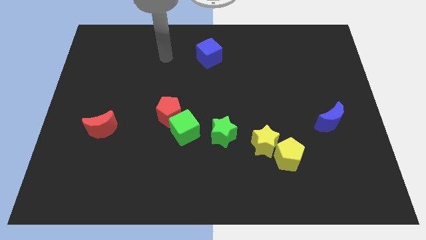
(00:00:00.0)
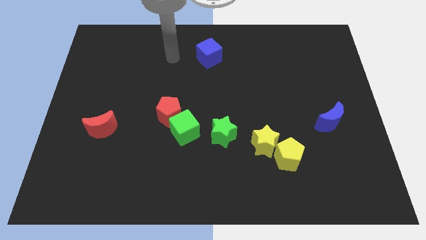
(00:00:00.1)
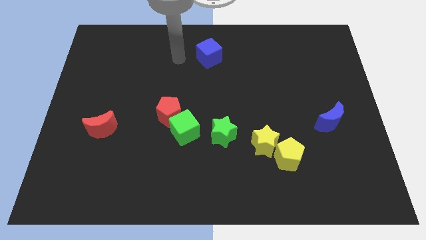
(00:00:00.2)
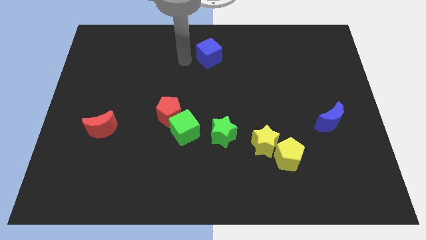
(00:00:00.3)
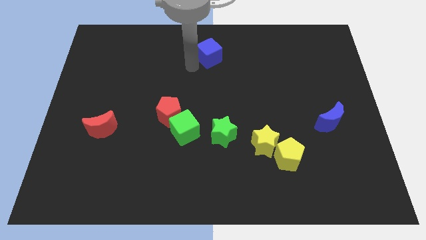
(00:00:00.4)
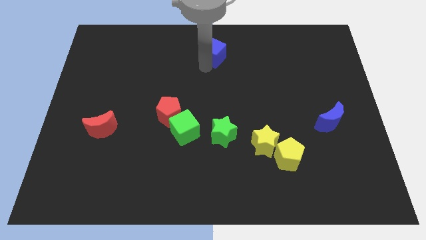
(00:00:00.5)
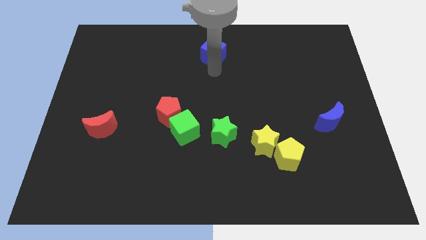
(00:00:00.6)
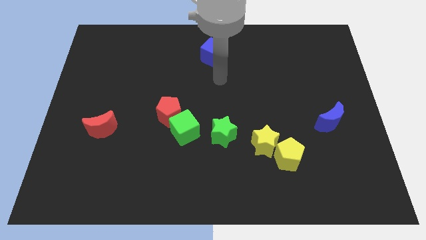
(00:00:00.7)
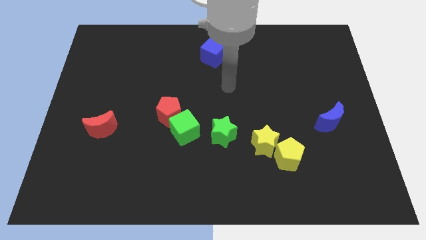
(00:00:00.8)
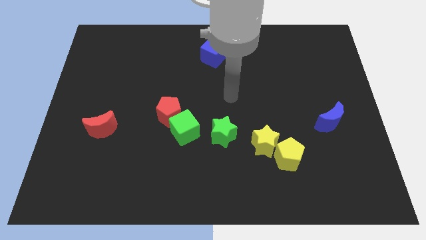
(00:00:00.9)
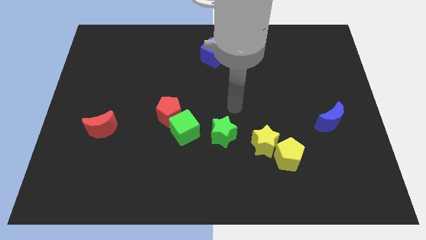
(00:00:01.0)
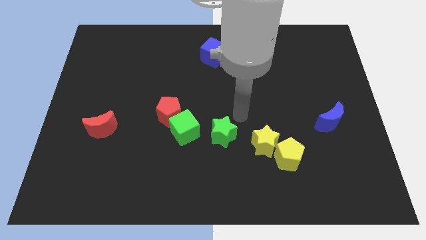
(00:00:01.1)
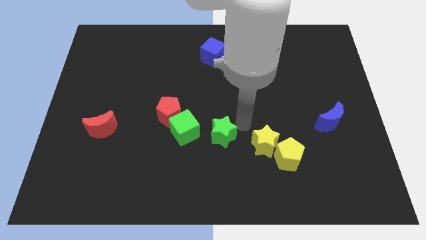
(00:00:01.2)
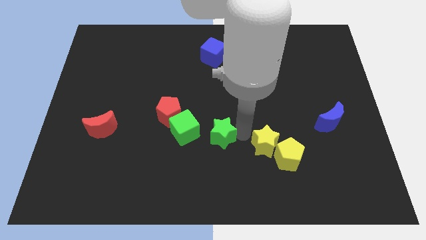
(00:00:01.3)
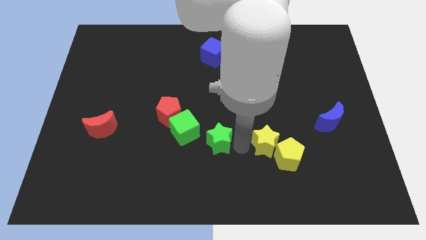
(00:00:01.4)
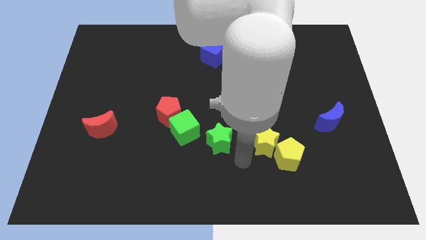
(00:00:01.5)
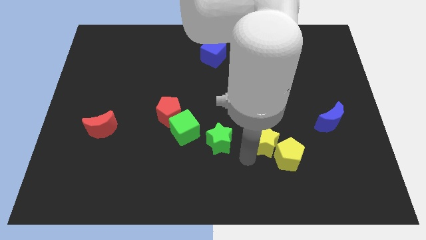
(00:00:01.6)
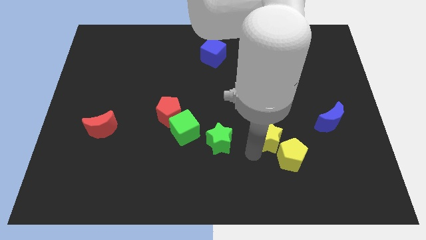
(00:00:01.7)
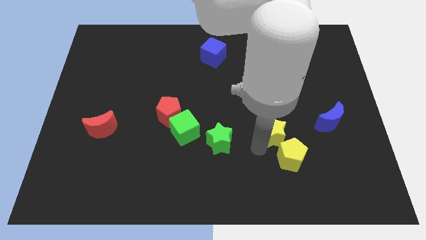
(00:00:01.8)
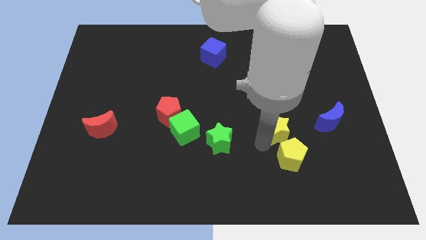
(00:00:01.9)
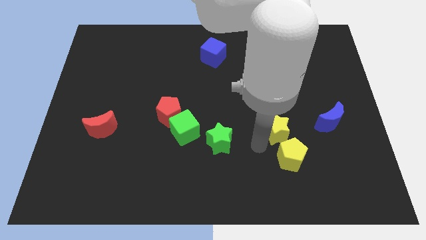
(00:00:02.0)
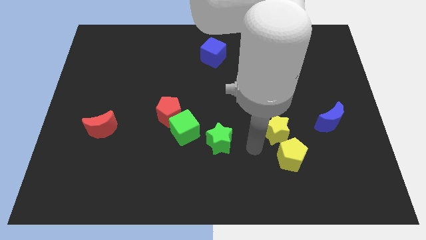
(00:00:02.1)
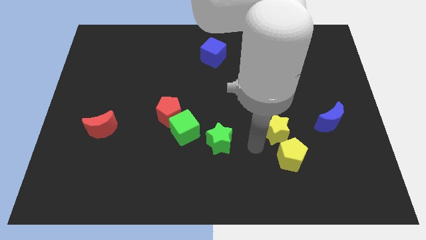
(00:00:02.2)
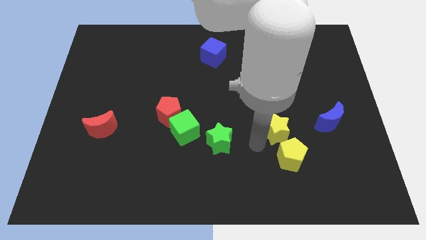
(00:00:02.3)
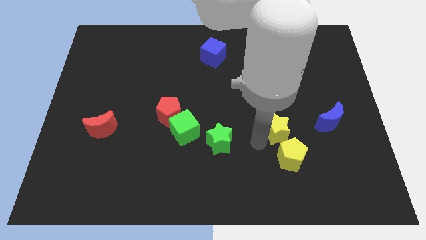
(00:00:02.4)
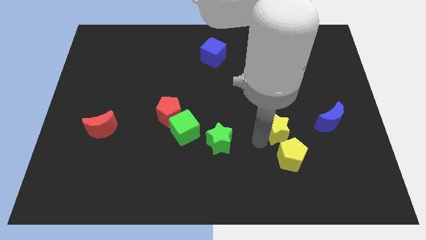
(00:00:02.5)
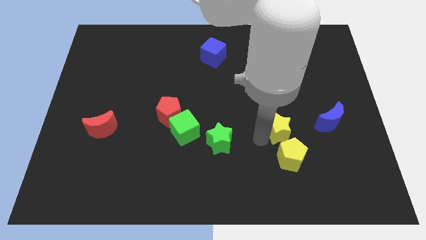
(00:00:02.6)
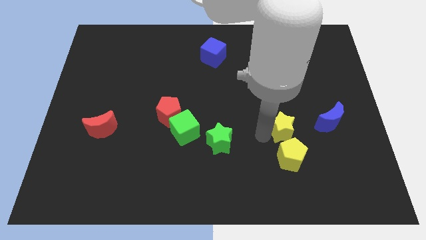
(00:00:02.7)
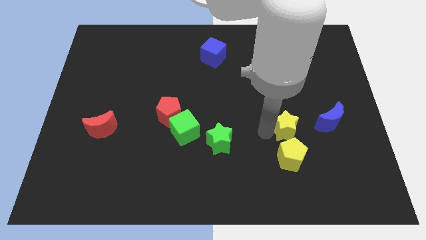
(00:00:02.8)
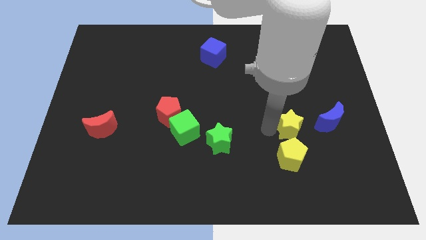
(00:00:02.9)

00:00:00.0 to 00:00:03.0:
move the yellow star a bit up and right

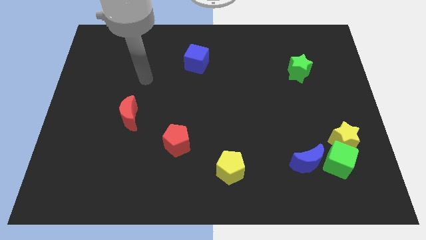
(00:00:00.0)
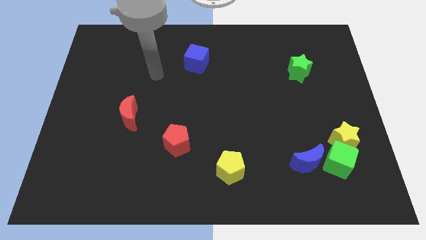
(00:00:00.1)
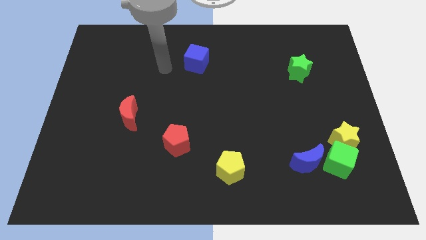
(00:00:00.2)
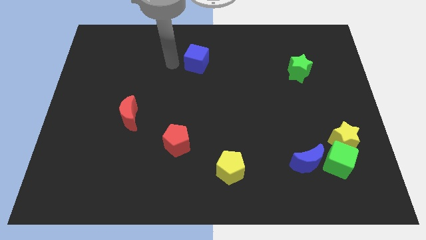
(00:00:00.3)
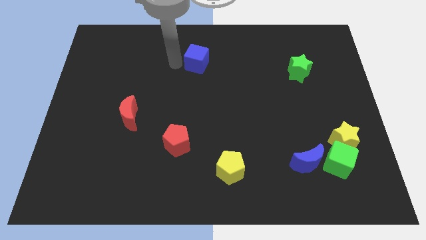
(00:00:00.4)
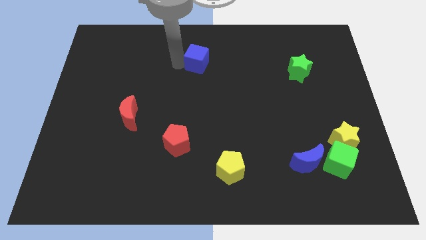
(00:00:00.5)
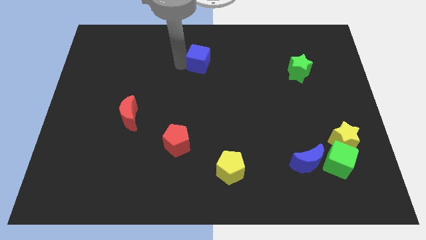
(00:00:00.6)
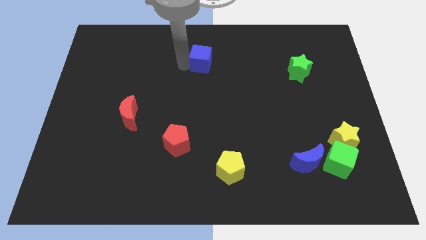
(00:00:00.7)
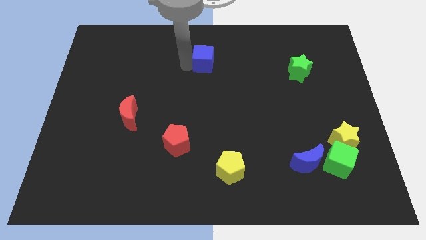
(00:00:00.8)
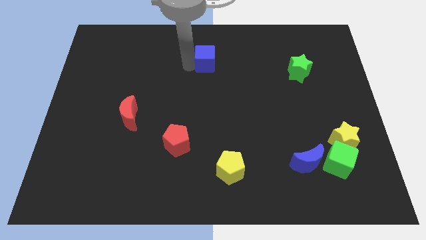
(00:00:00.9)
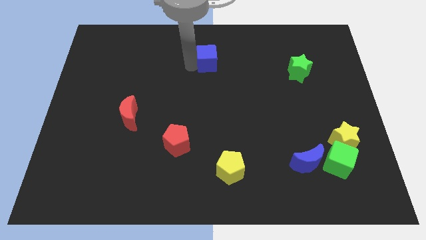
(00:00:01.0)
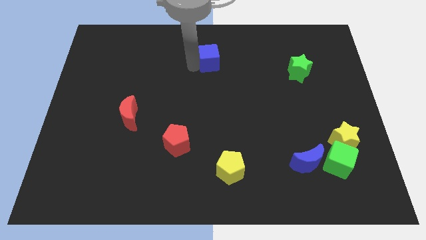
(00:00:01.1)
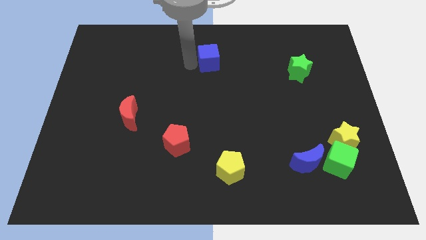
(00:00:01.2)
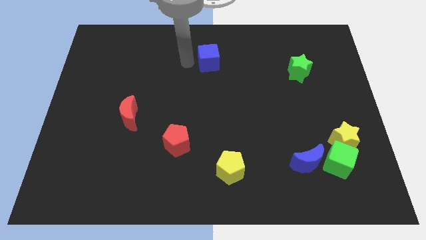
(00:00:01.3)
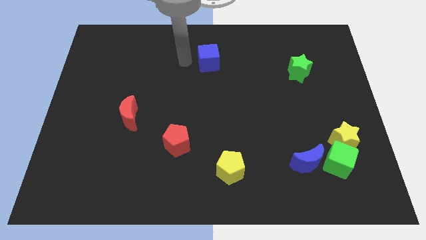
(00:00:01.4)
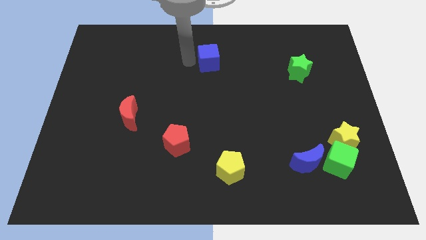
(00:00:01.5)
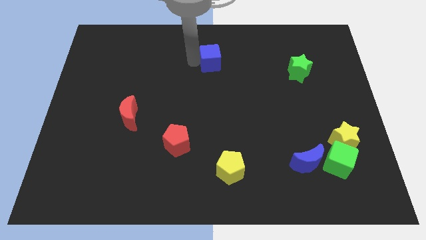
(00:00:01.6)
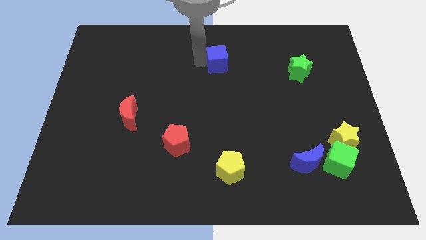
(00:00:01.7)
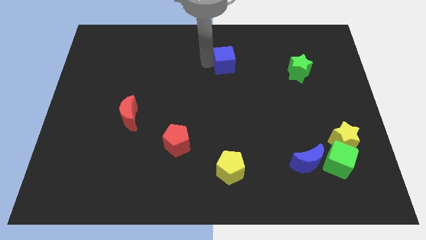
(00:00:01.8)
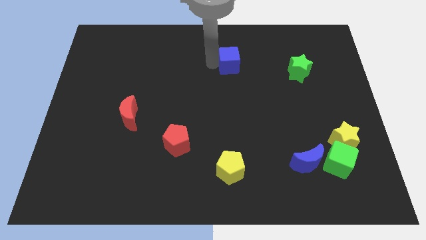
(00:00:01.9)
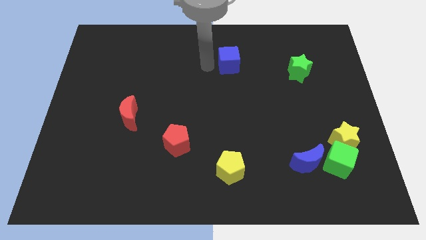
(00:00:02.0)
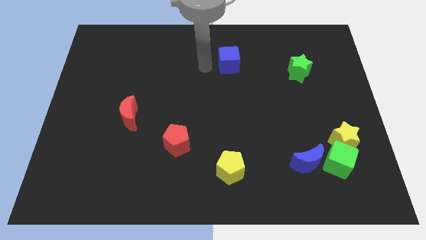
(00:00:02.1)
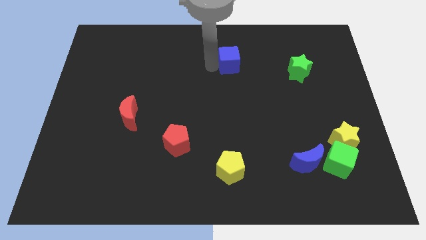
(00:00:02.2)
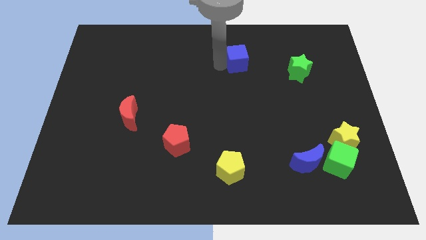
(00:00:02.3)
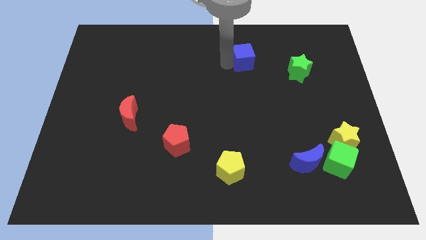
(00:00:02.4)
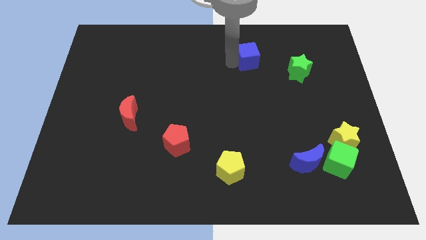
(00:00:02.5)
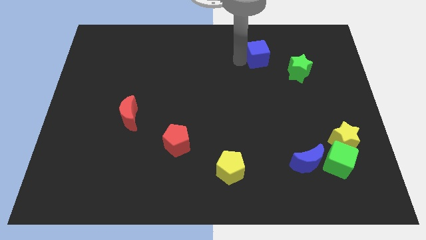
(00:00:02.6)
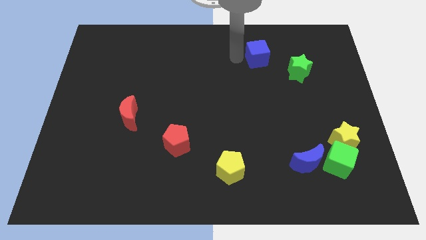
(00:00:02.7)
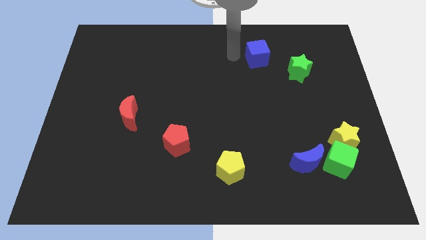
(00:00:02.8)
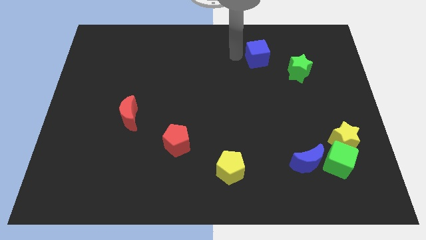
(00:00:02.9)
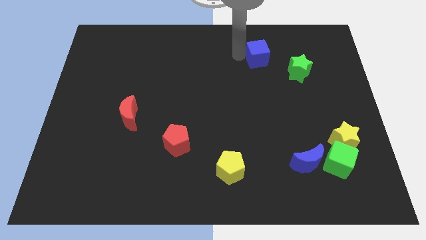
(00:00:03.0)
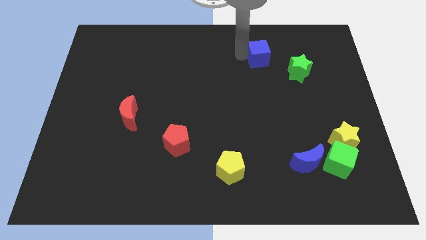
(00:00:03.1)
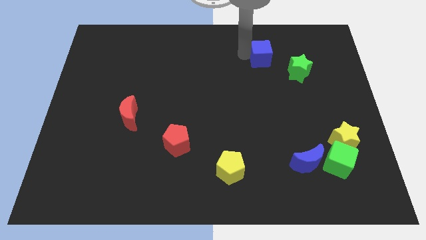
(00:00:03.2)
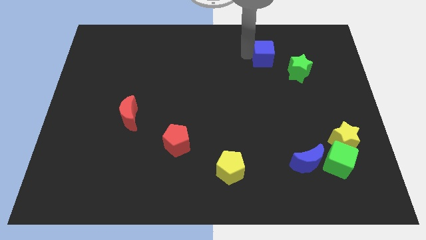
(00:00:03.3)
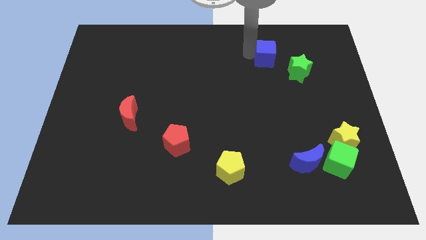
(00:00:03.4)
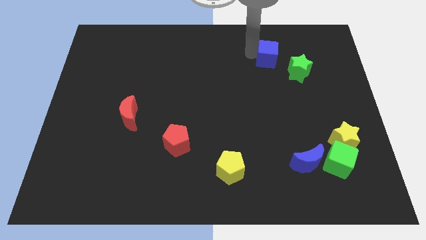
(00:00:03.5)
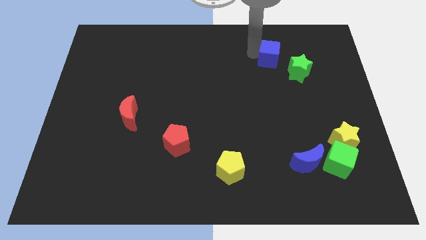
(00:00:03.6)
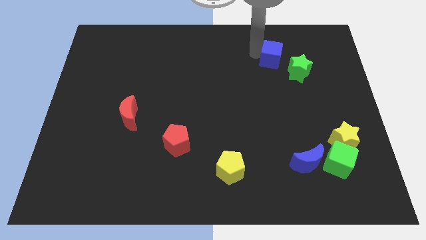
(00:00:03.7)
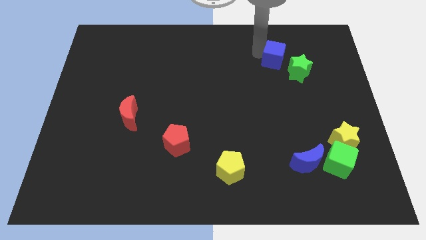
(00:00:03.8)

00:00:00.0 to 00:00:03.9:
move the blue cube to the right

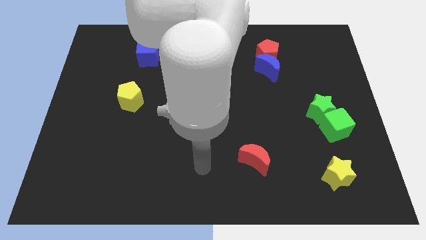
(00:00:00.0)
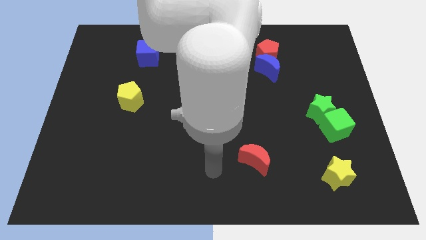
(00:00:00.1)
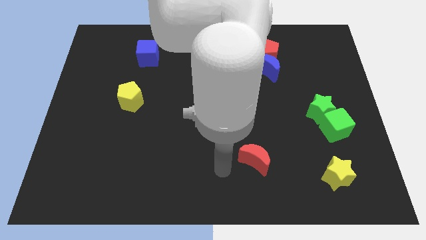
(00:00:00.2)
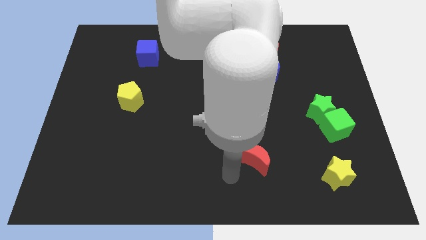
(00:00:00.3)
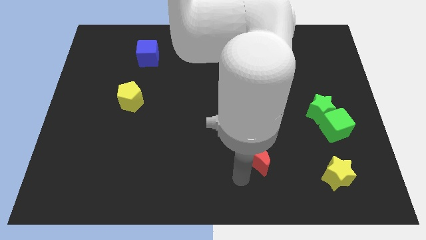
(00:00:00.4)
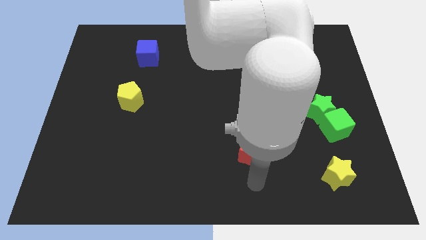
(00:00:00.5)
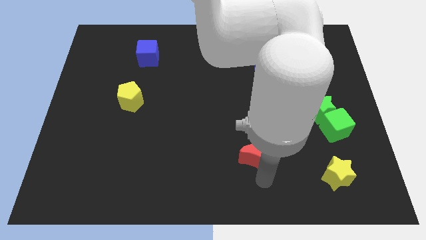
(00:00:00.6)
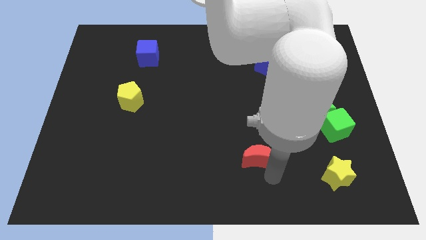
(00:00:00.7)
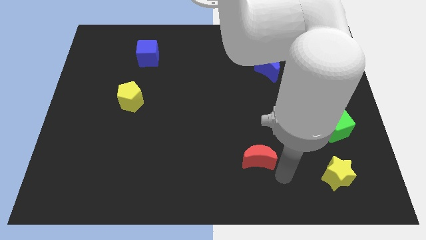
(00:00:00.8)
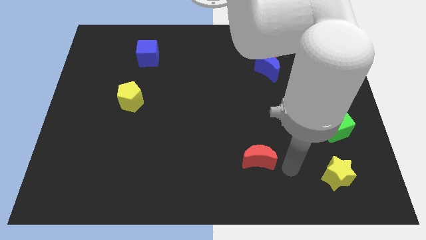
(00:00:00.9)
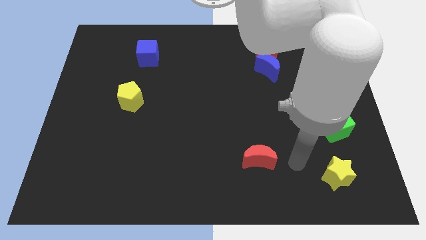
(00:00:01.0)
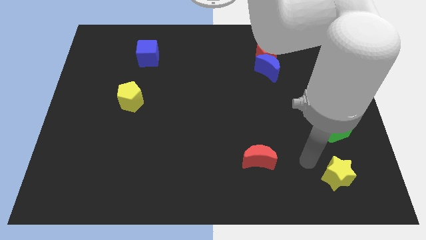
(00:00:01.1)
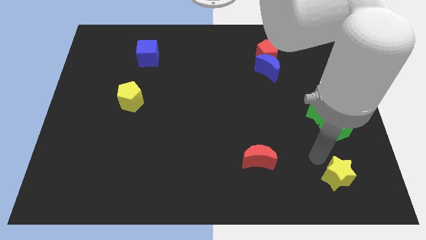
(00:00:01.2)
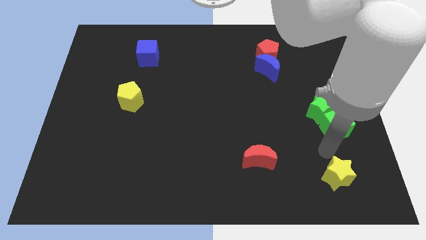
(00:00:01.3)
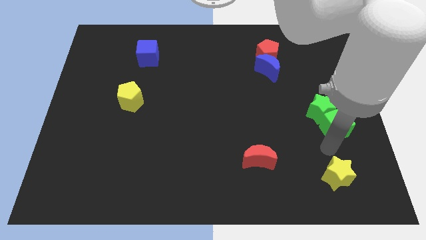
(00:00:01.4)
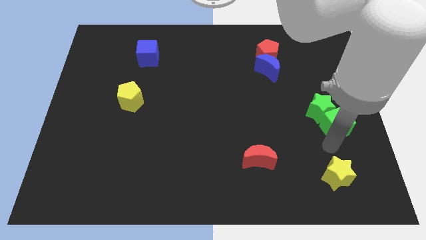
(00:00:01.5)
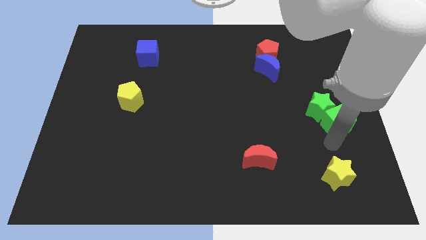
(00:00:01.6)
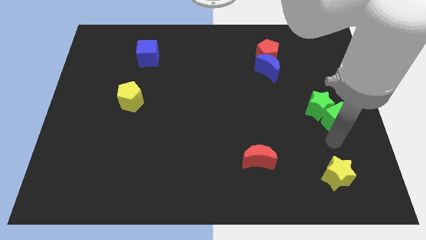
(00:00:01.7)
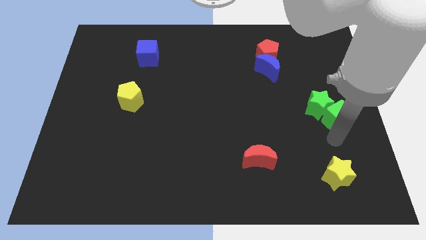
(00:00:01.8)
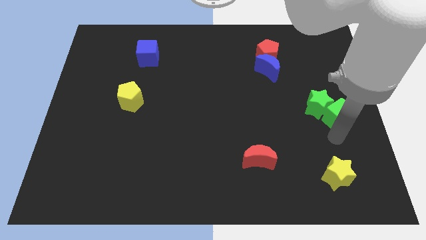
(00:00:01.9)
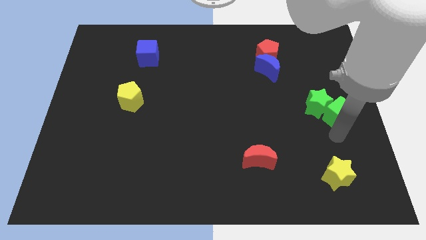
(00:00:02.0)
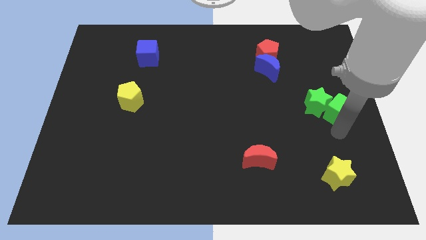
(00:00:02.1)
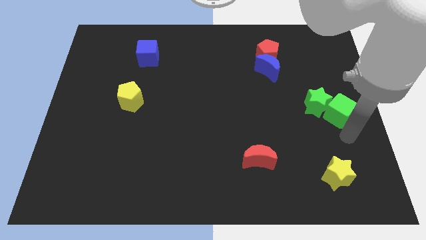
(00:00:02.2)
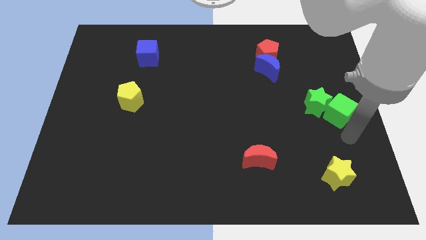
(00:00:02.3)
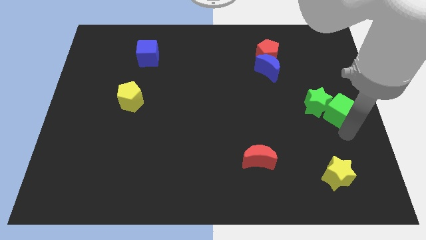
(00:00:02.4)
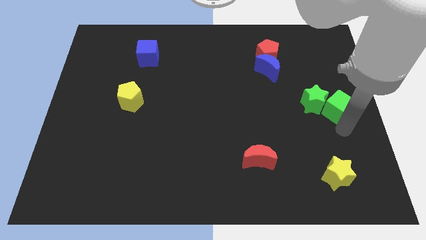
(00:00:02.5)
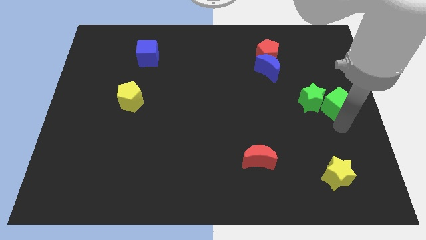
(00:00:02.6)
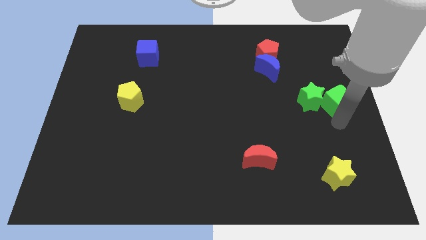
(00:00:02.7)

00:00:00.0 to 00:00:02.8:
move the green cube a little bit upwards
